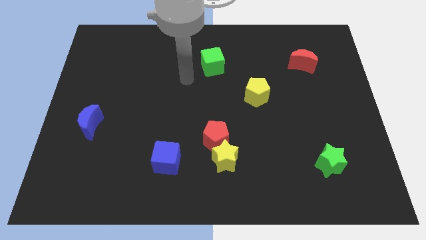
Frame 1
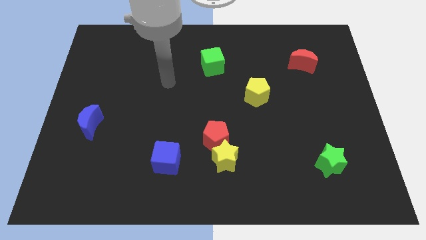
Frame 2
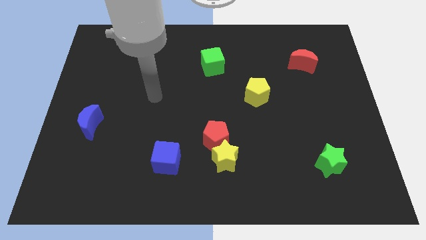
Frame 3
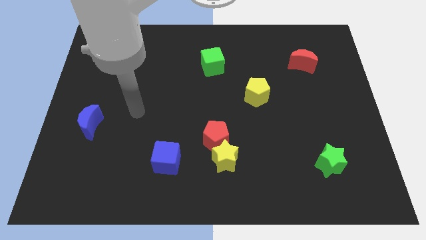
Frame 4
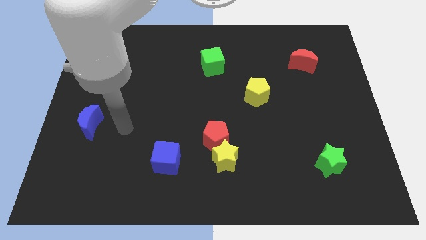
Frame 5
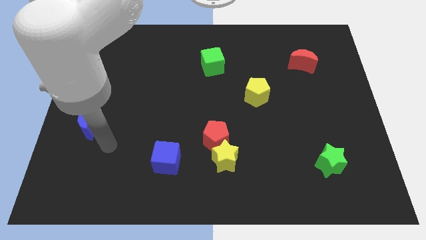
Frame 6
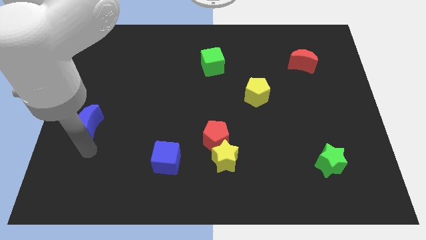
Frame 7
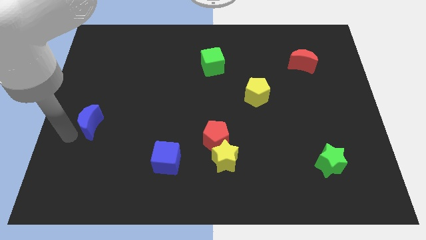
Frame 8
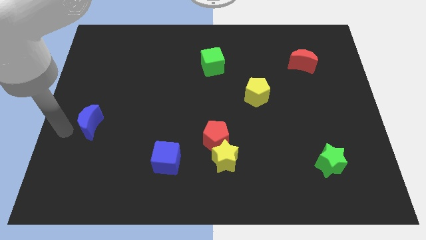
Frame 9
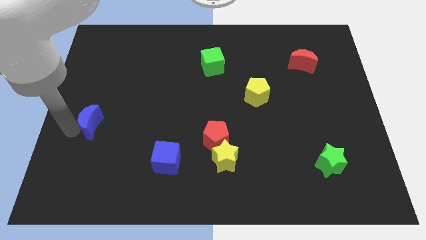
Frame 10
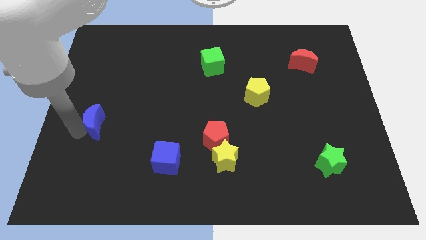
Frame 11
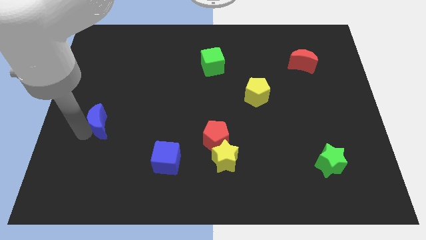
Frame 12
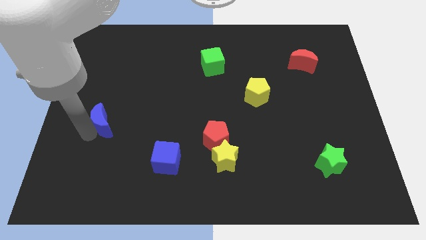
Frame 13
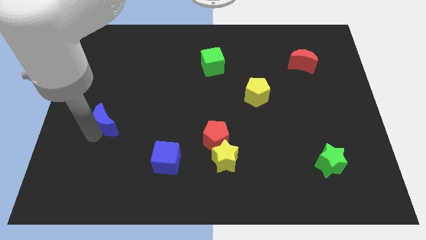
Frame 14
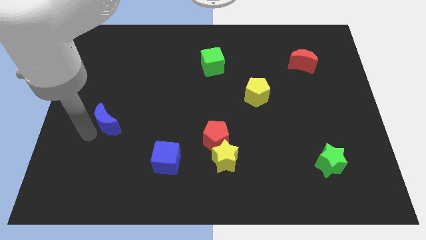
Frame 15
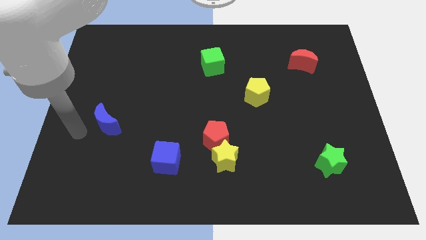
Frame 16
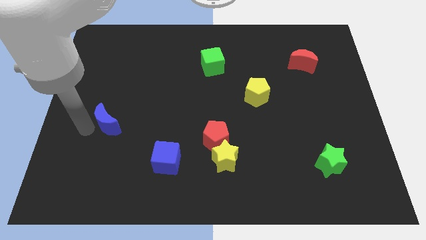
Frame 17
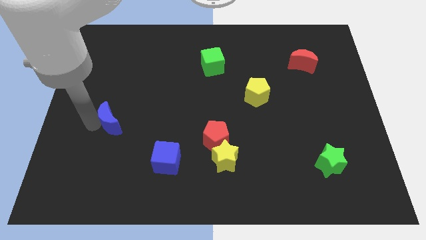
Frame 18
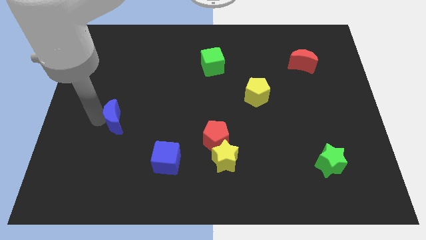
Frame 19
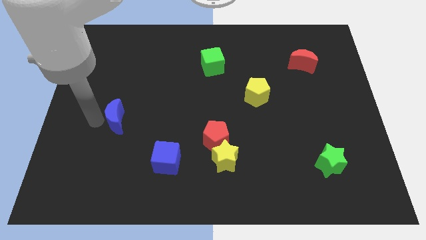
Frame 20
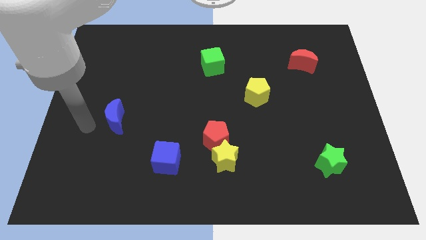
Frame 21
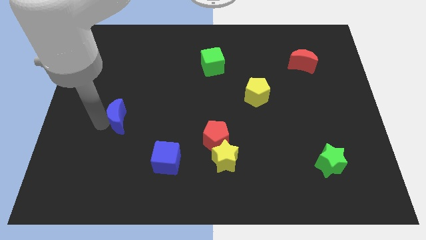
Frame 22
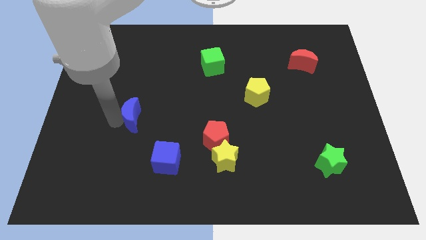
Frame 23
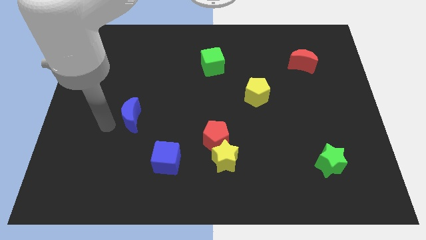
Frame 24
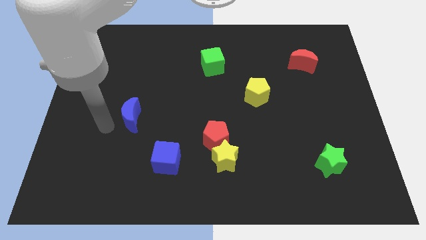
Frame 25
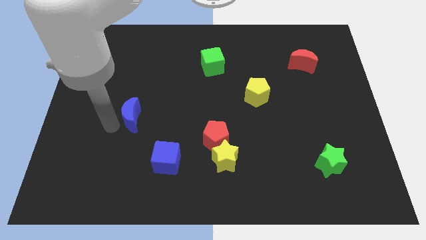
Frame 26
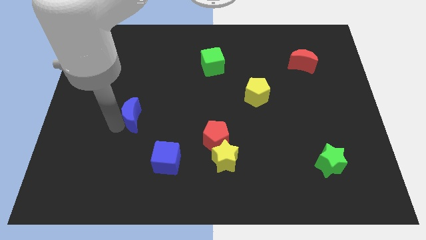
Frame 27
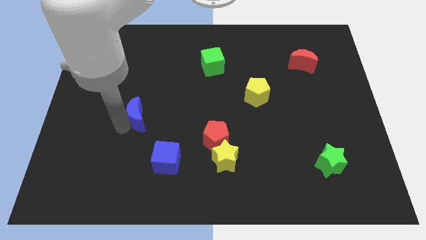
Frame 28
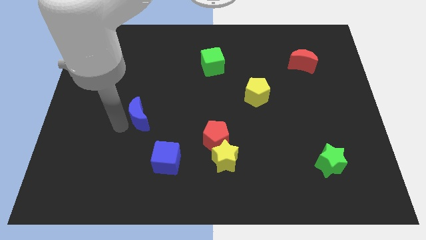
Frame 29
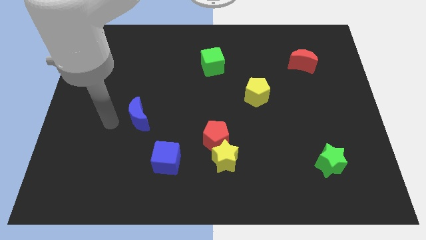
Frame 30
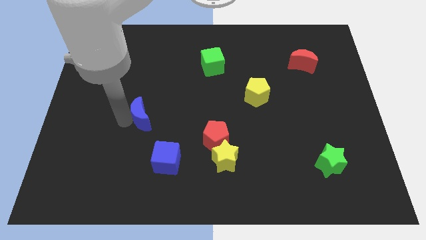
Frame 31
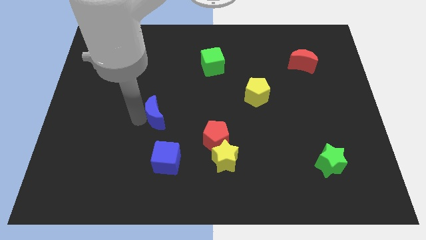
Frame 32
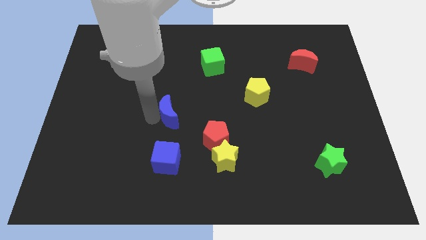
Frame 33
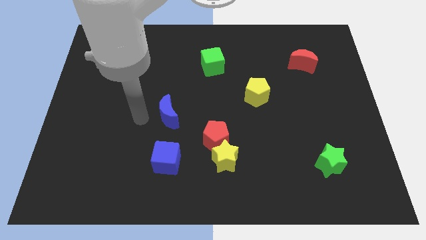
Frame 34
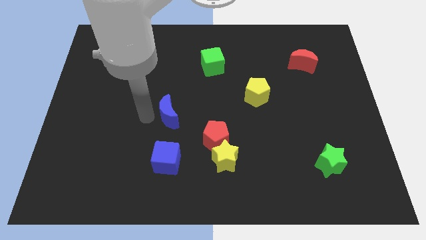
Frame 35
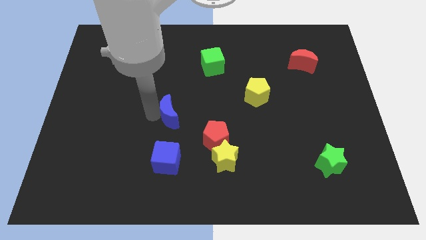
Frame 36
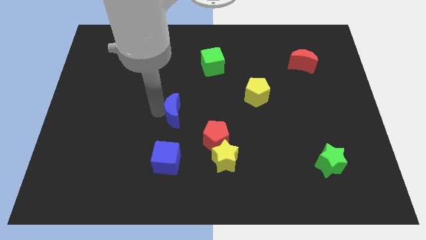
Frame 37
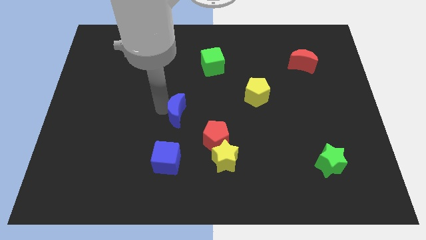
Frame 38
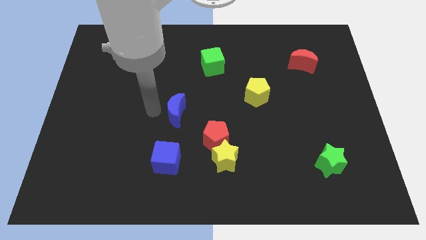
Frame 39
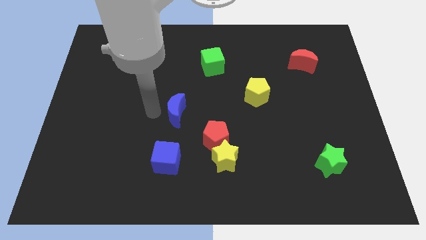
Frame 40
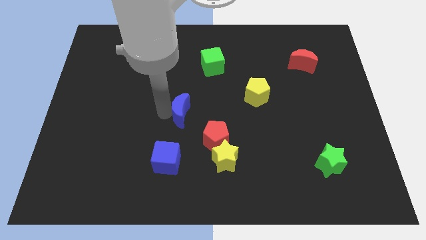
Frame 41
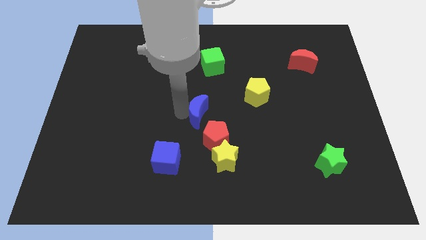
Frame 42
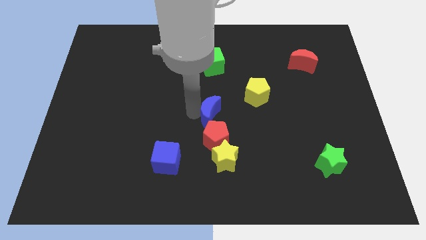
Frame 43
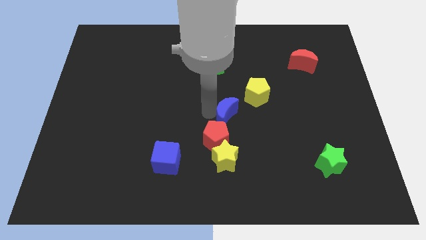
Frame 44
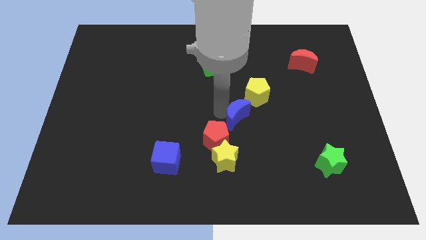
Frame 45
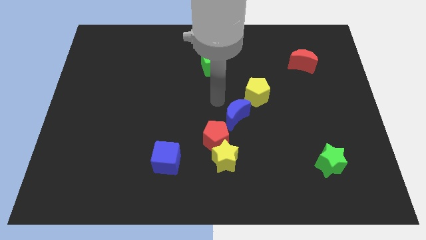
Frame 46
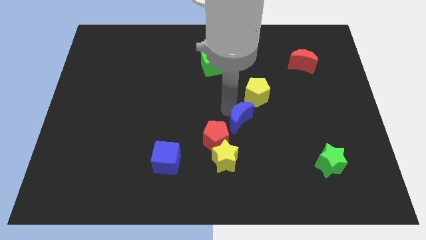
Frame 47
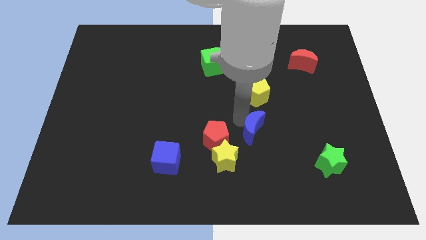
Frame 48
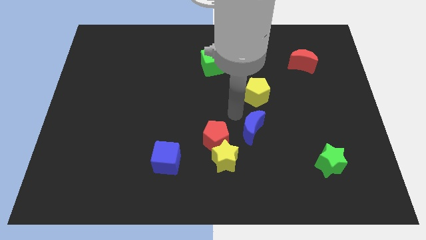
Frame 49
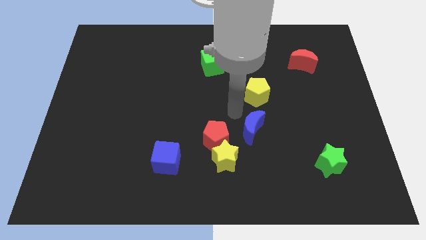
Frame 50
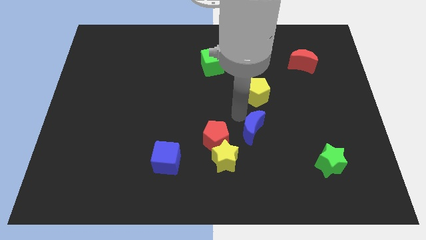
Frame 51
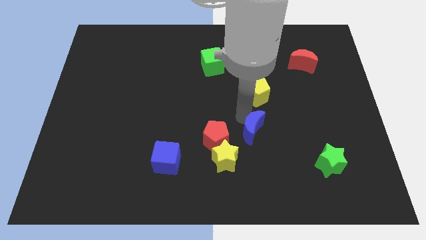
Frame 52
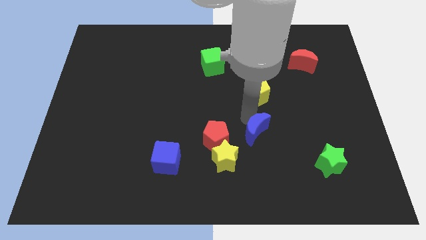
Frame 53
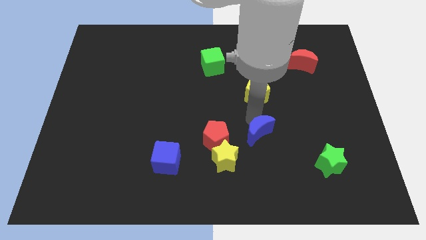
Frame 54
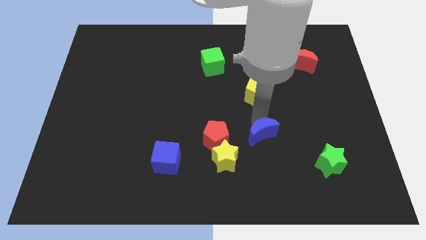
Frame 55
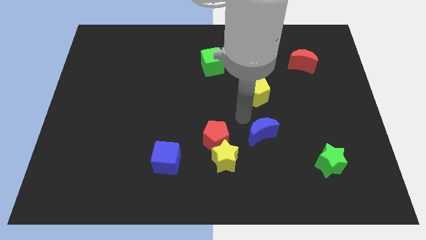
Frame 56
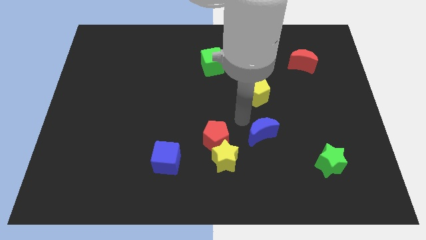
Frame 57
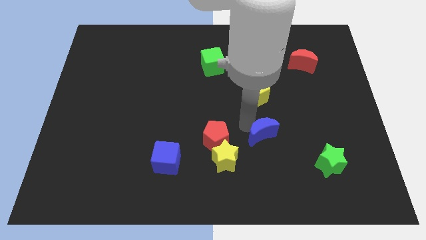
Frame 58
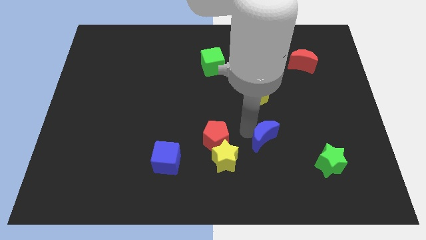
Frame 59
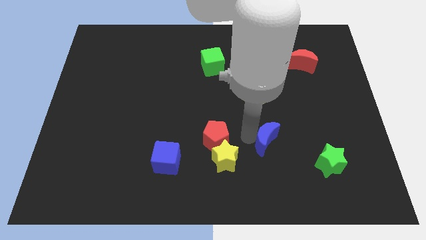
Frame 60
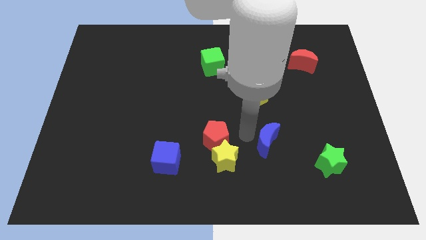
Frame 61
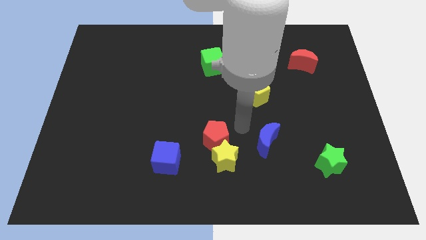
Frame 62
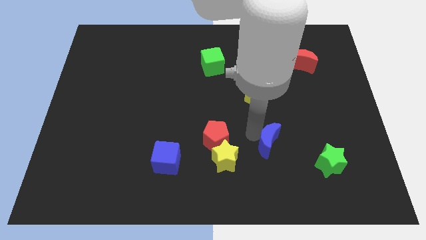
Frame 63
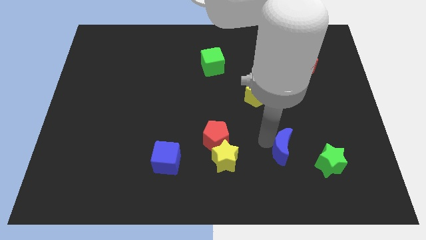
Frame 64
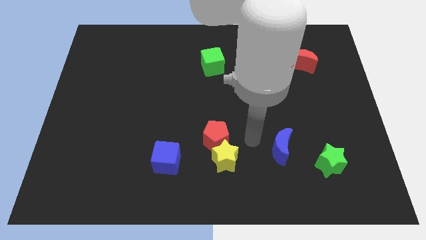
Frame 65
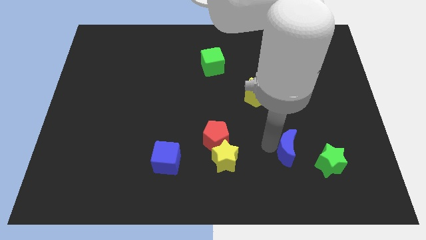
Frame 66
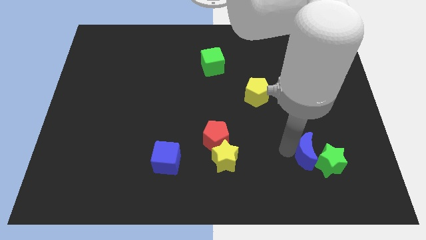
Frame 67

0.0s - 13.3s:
put the blue moon close to the green star
